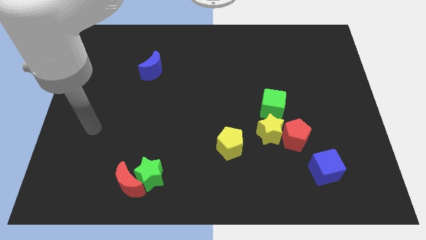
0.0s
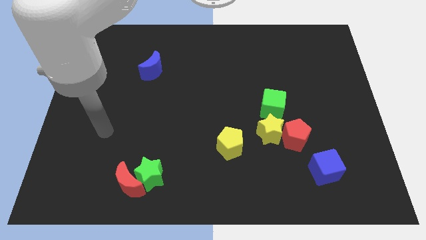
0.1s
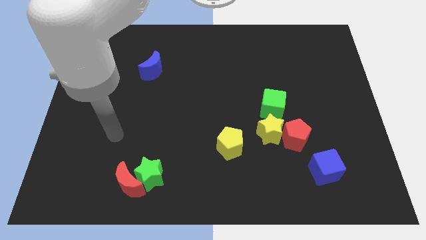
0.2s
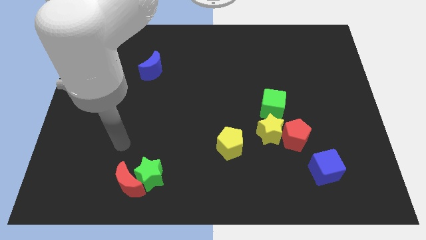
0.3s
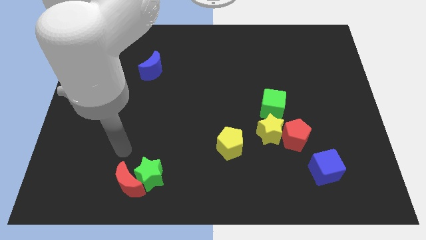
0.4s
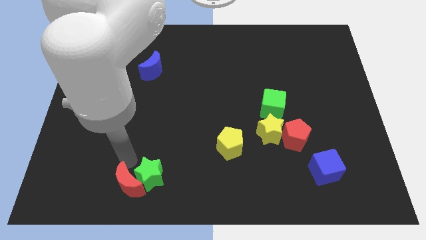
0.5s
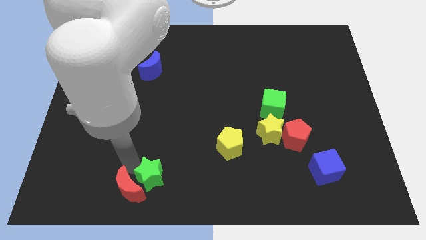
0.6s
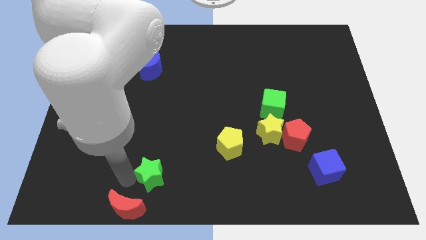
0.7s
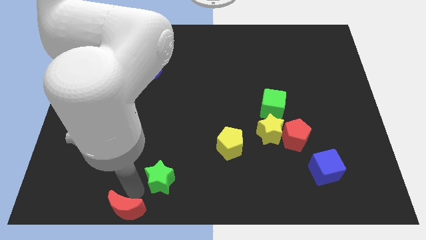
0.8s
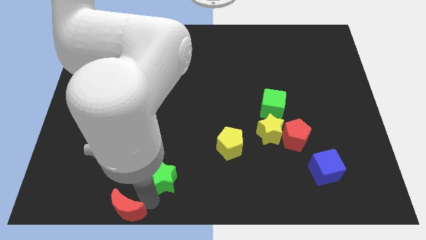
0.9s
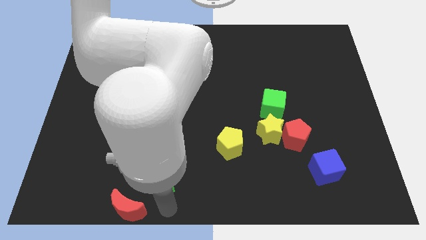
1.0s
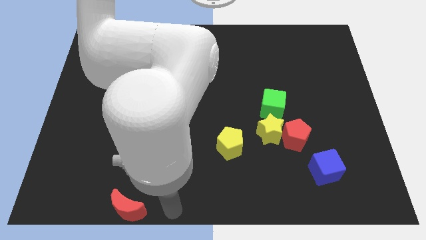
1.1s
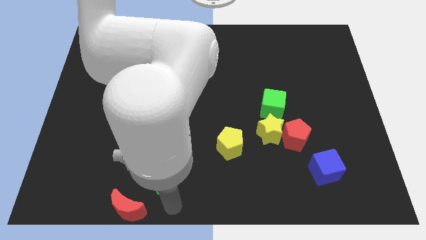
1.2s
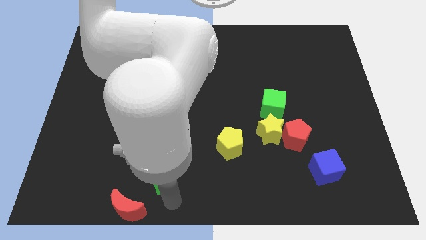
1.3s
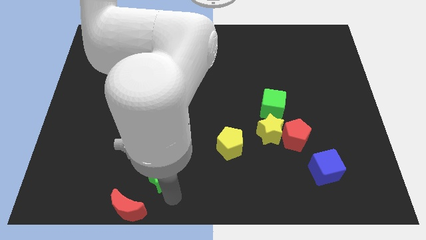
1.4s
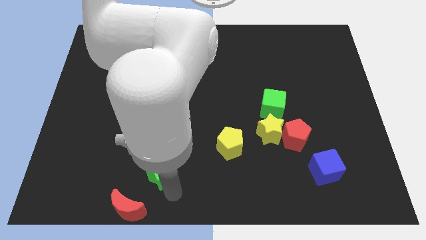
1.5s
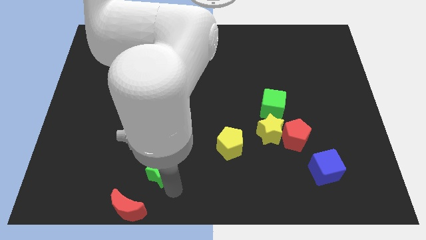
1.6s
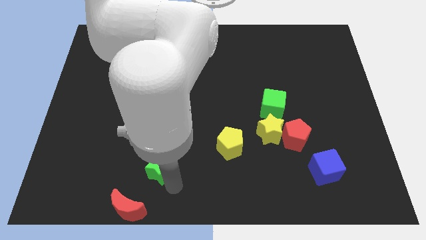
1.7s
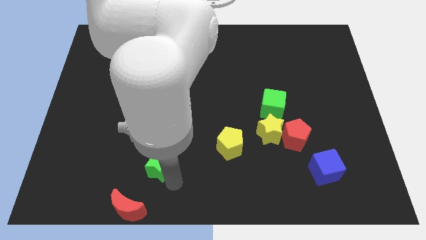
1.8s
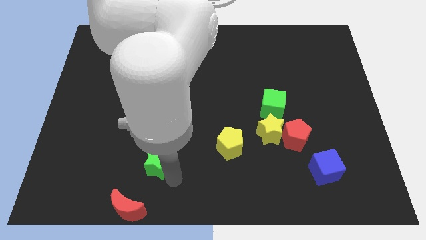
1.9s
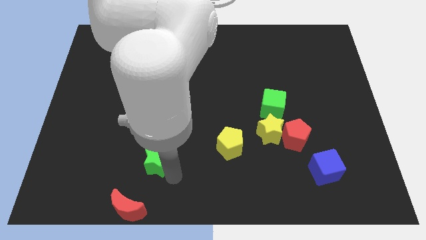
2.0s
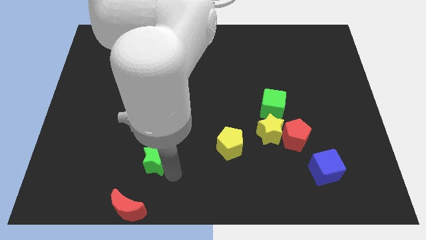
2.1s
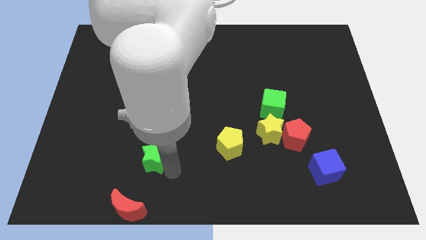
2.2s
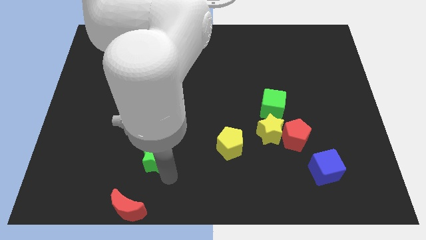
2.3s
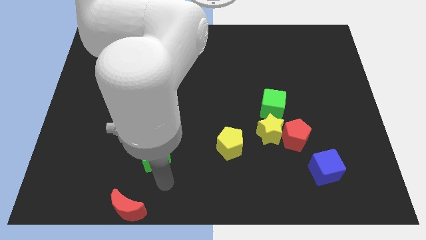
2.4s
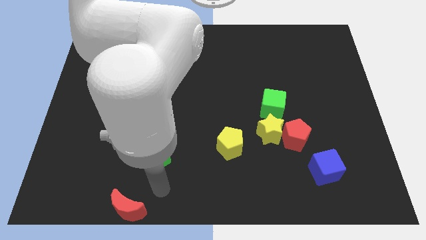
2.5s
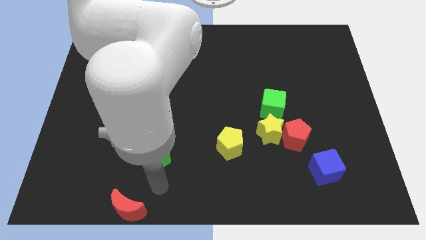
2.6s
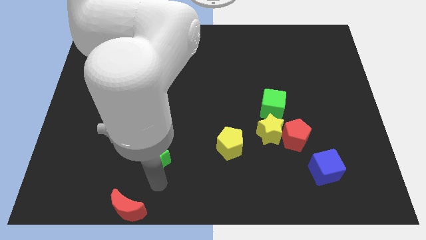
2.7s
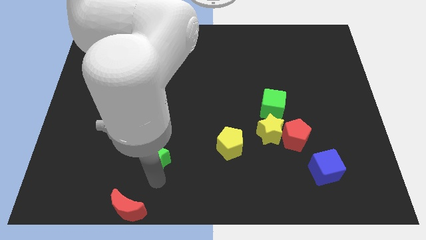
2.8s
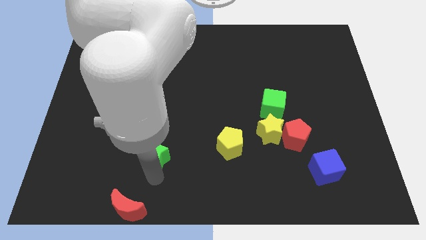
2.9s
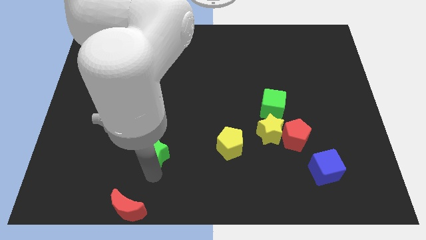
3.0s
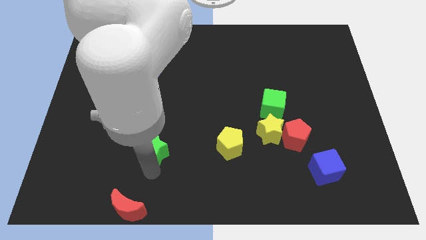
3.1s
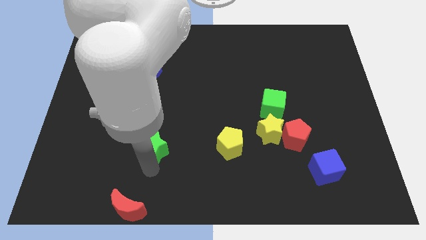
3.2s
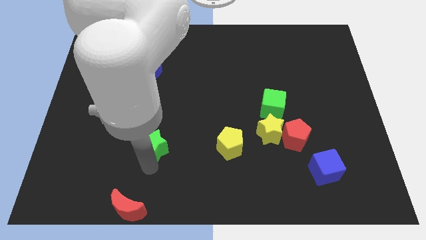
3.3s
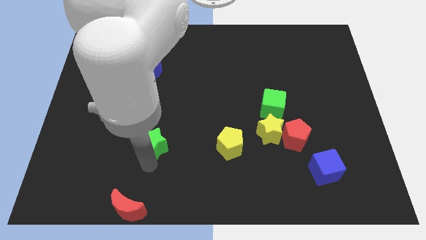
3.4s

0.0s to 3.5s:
push the green star up a little

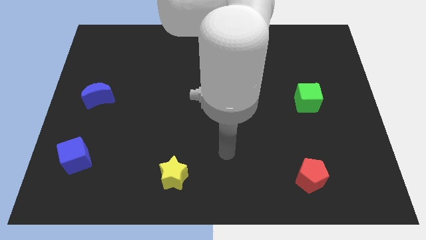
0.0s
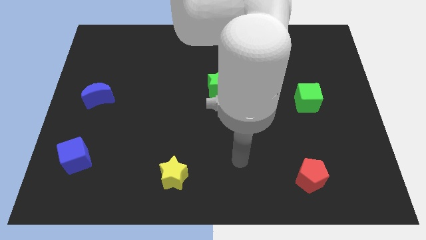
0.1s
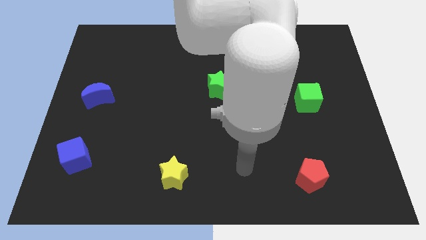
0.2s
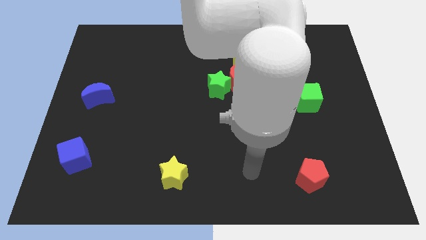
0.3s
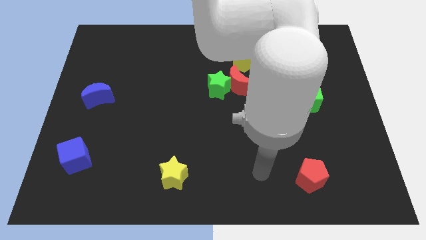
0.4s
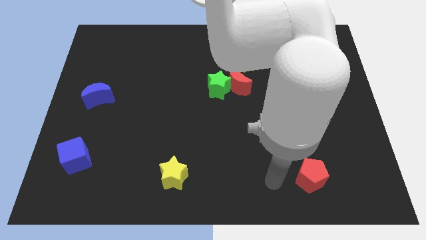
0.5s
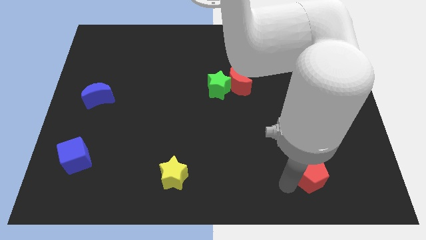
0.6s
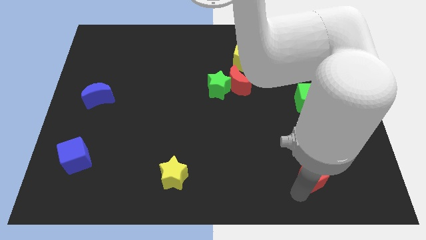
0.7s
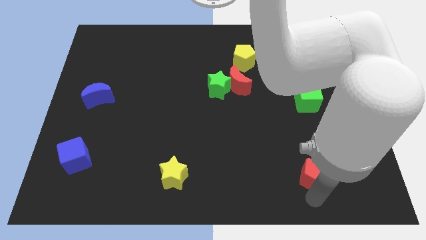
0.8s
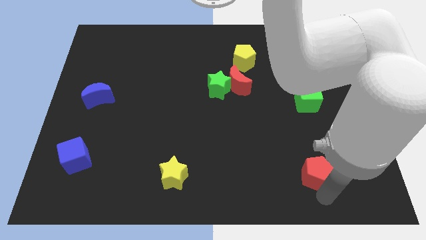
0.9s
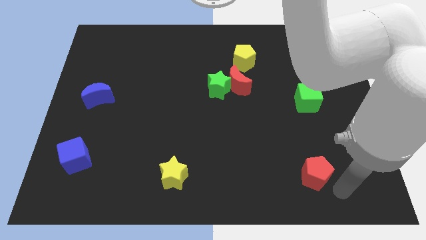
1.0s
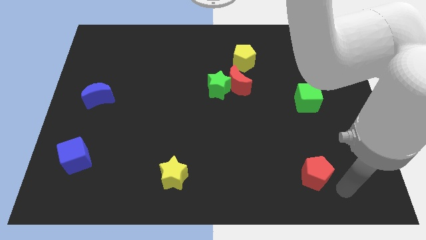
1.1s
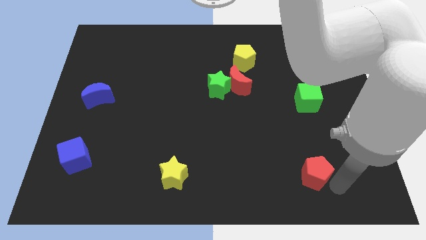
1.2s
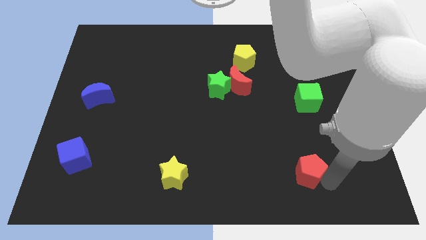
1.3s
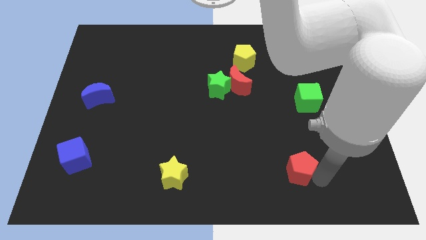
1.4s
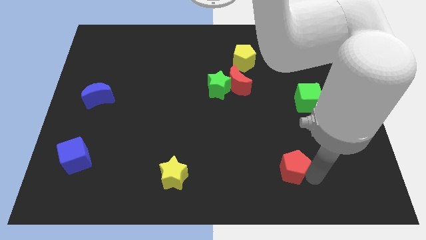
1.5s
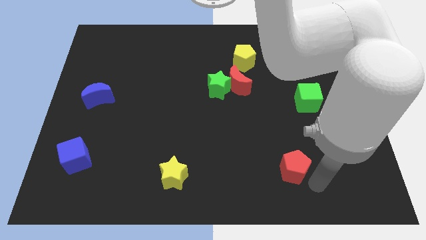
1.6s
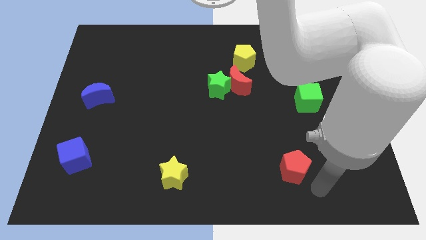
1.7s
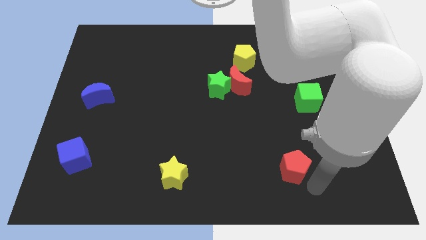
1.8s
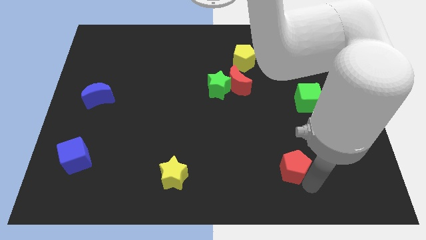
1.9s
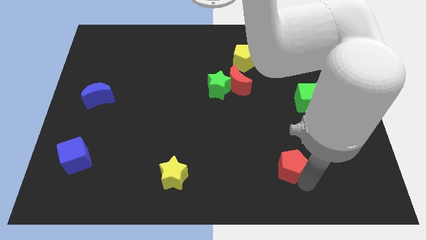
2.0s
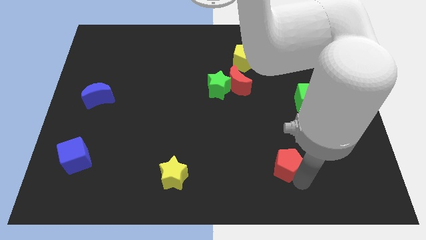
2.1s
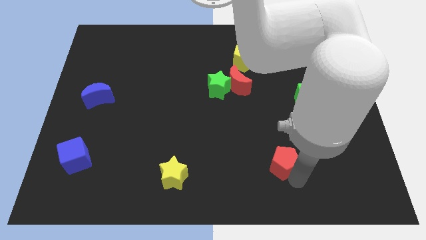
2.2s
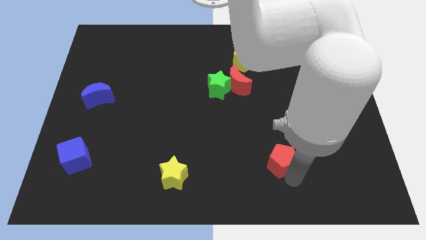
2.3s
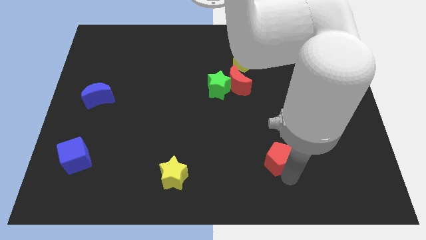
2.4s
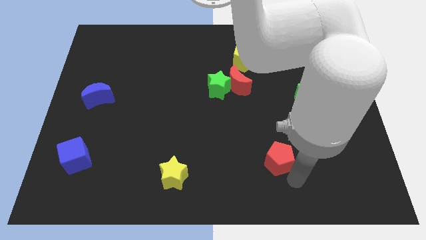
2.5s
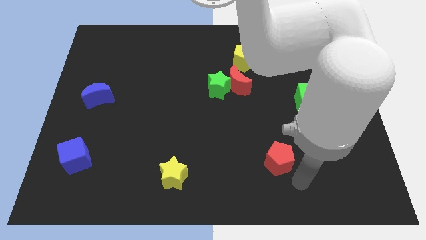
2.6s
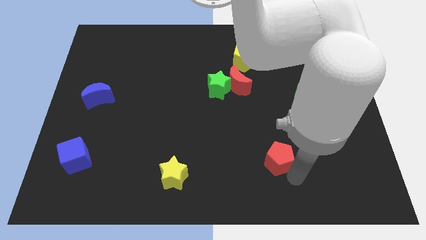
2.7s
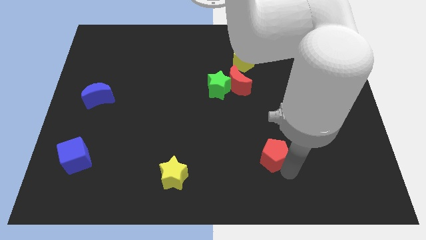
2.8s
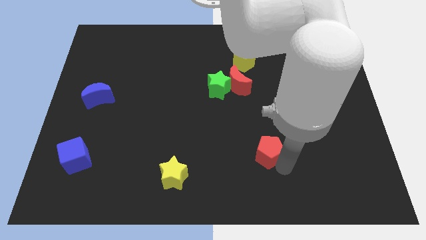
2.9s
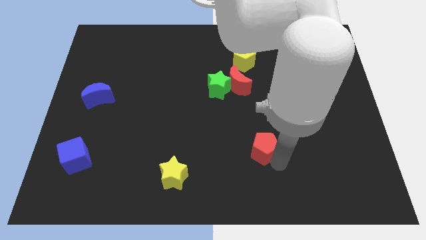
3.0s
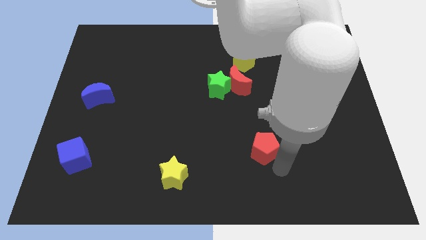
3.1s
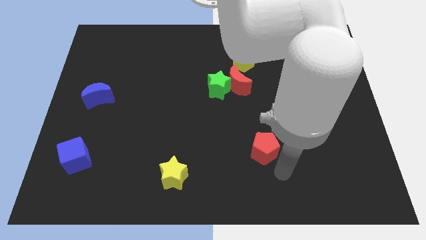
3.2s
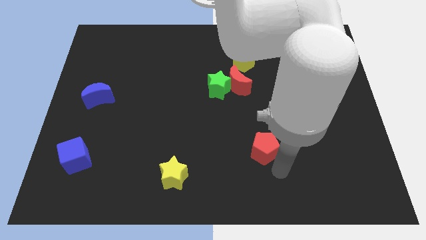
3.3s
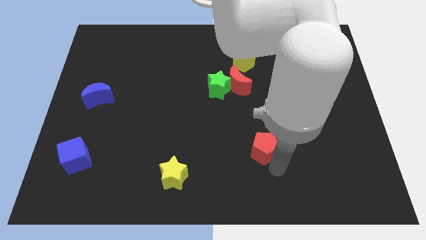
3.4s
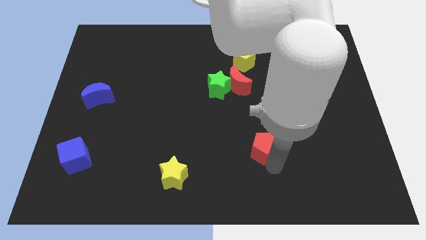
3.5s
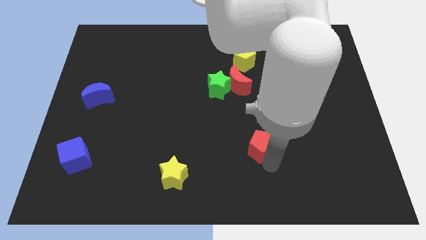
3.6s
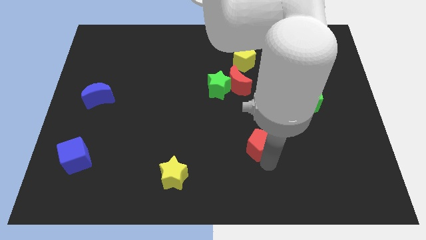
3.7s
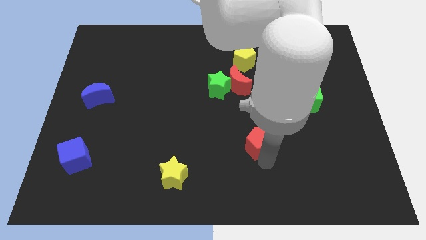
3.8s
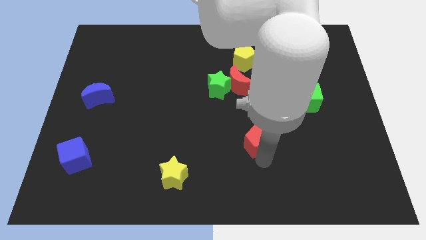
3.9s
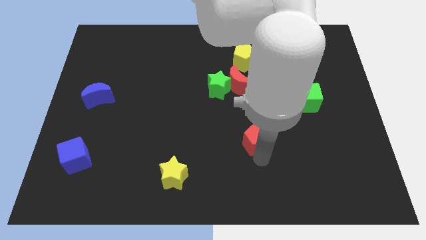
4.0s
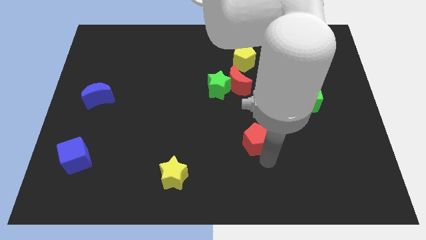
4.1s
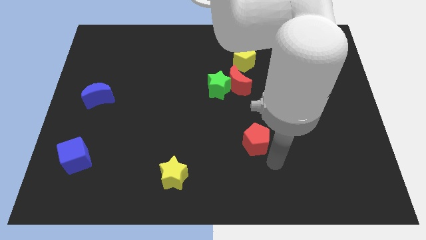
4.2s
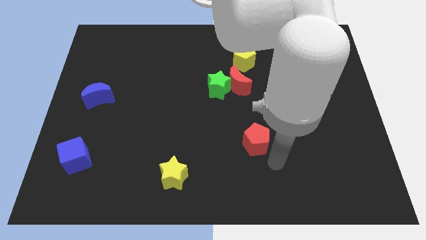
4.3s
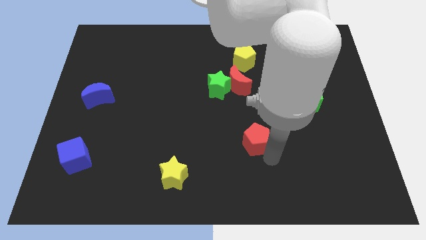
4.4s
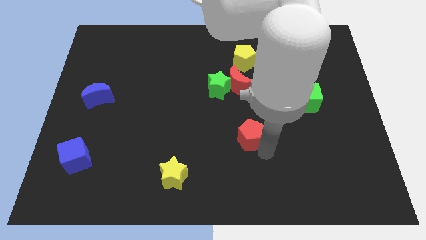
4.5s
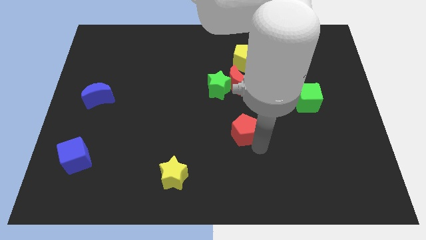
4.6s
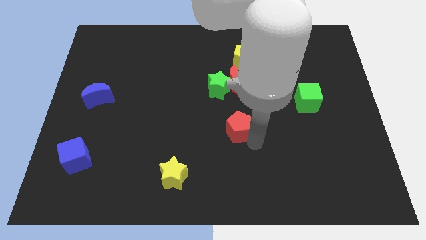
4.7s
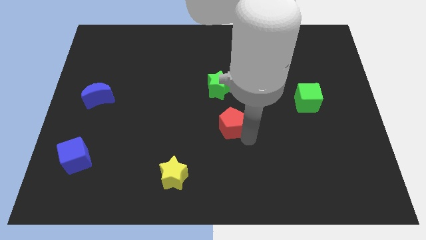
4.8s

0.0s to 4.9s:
push the red pentagon up and then left
